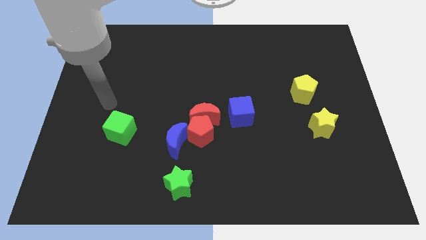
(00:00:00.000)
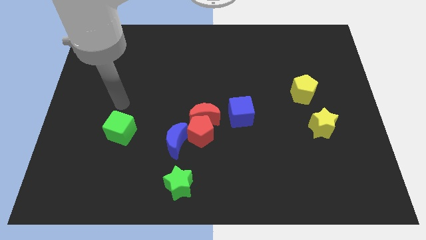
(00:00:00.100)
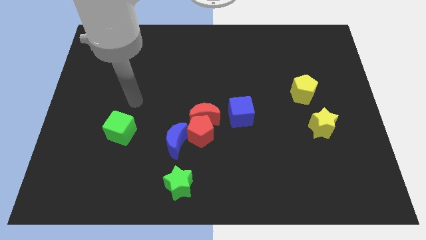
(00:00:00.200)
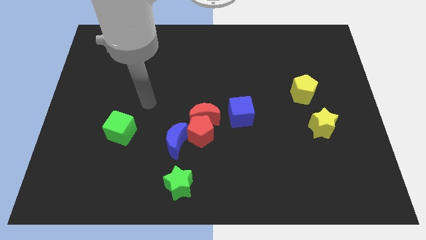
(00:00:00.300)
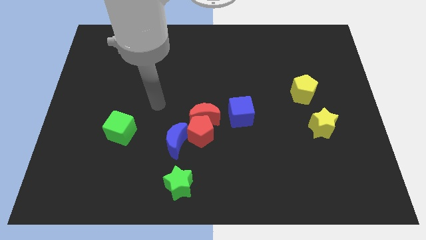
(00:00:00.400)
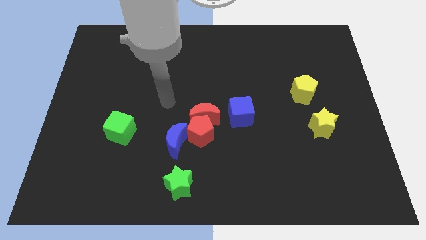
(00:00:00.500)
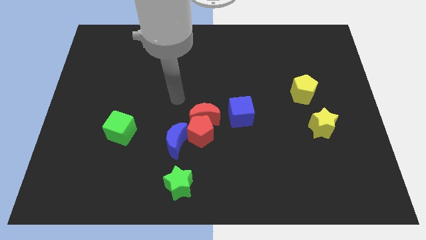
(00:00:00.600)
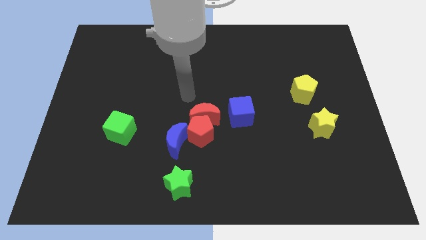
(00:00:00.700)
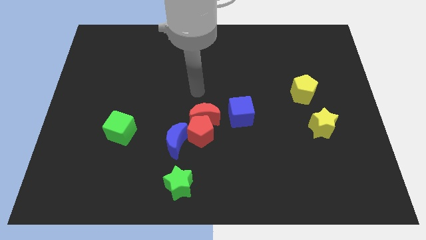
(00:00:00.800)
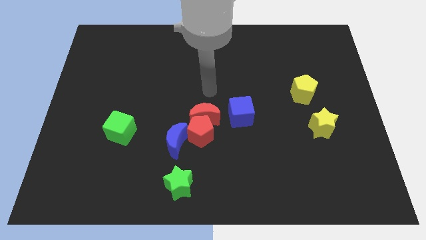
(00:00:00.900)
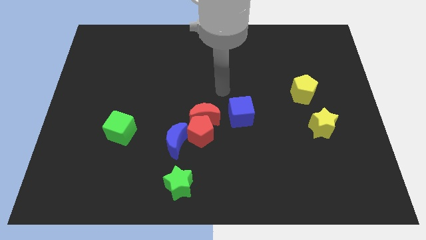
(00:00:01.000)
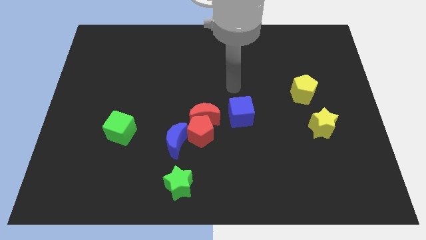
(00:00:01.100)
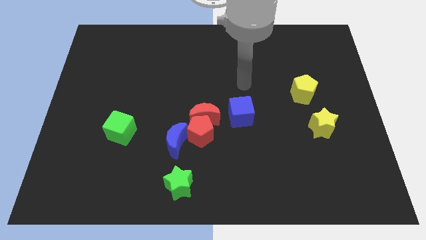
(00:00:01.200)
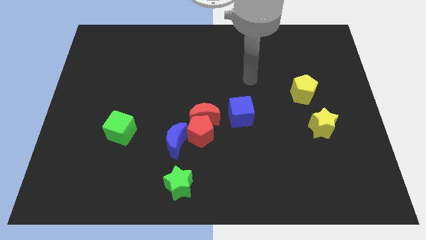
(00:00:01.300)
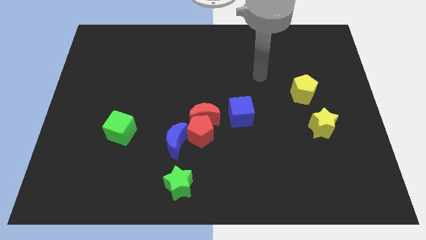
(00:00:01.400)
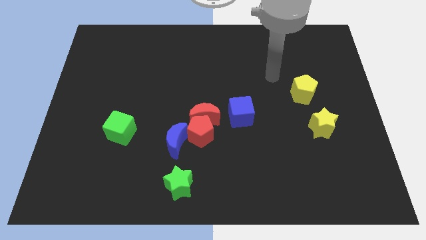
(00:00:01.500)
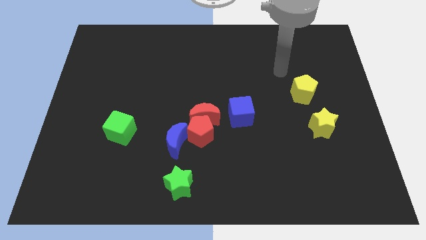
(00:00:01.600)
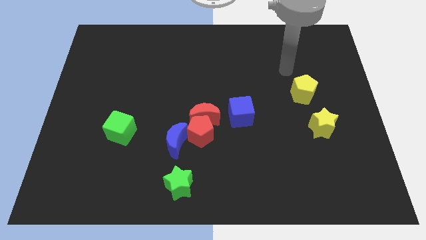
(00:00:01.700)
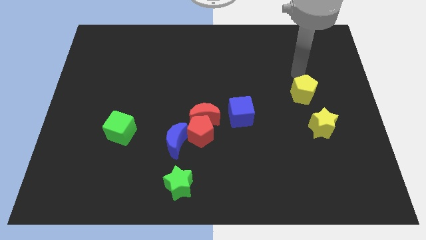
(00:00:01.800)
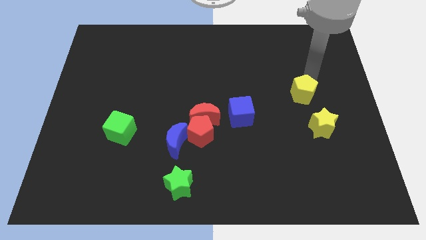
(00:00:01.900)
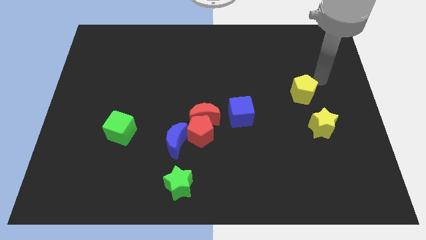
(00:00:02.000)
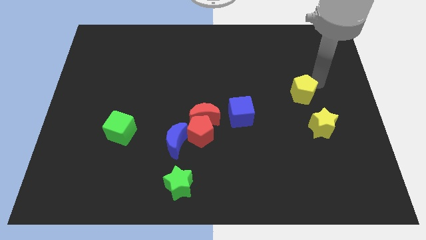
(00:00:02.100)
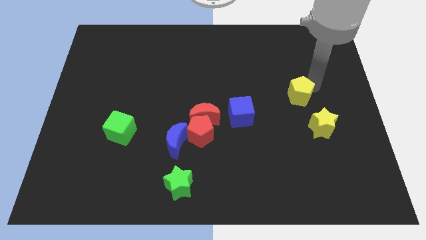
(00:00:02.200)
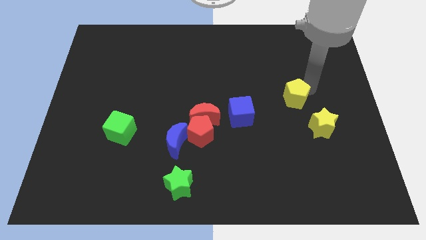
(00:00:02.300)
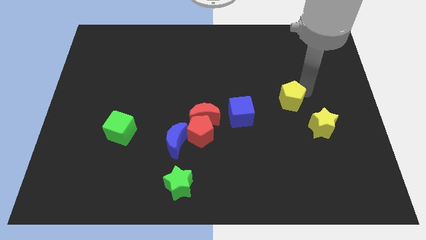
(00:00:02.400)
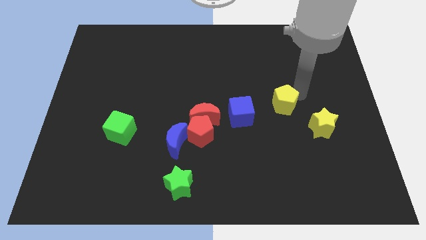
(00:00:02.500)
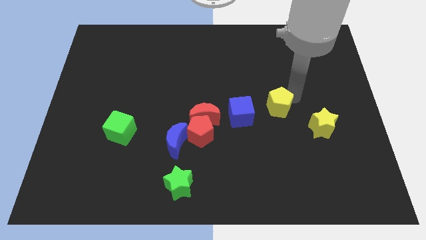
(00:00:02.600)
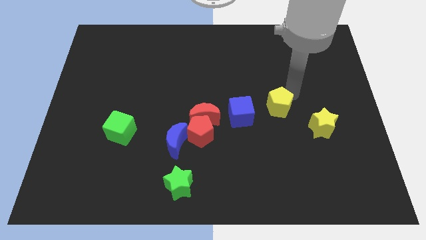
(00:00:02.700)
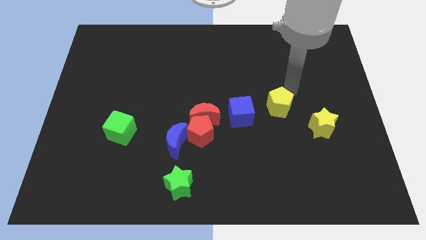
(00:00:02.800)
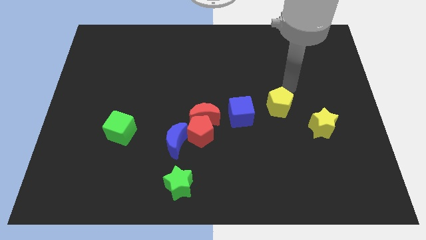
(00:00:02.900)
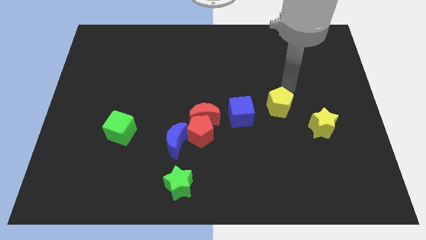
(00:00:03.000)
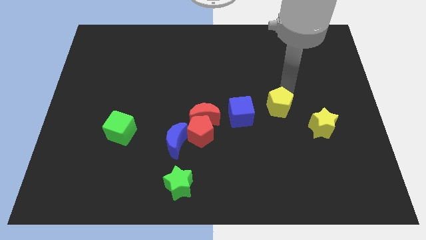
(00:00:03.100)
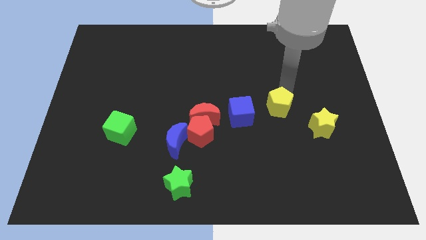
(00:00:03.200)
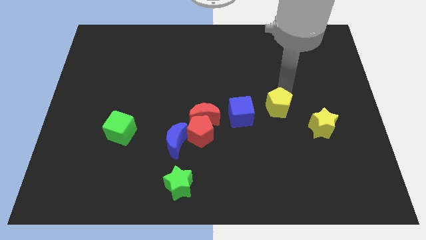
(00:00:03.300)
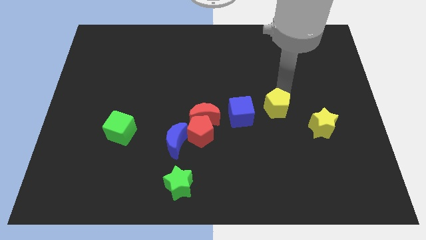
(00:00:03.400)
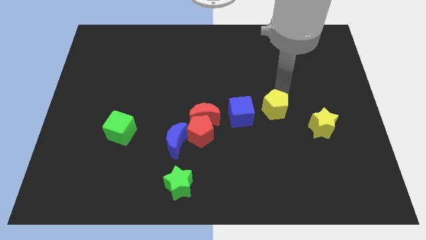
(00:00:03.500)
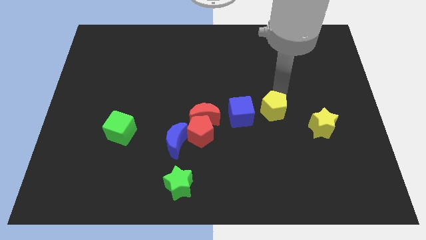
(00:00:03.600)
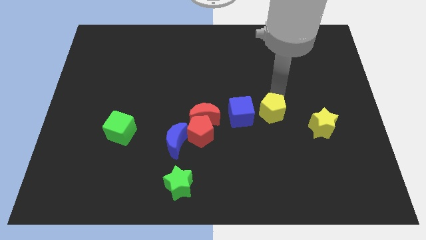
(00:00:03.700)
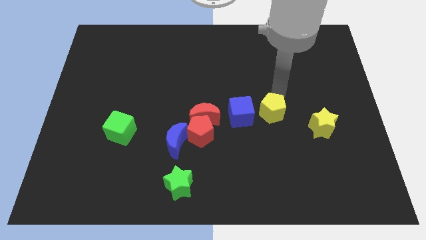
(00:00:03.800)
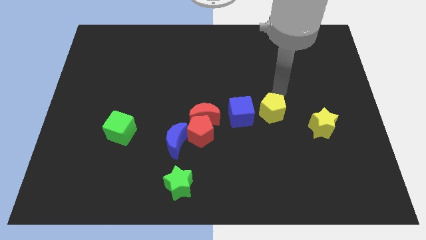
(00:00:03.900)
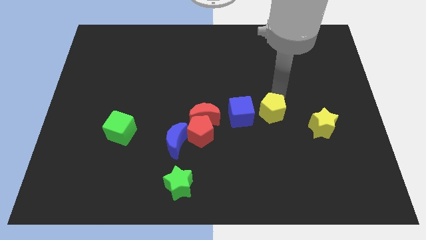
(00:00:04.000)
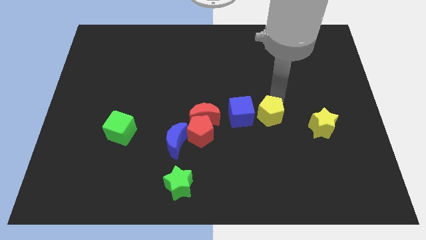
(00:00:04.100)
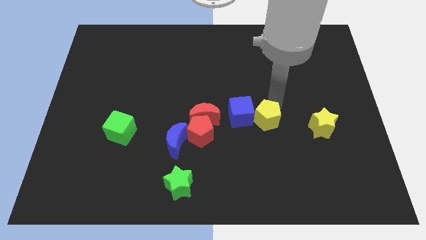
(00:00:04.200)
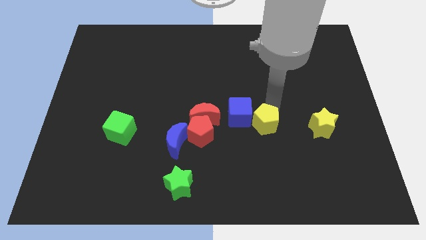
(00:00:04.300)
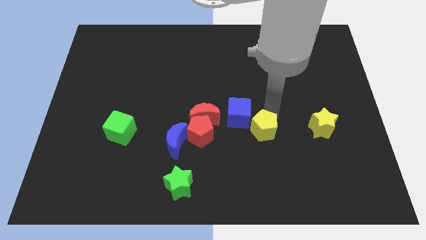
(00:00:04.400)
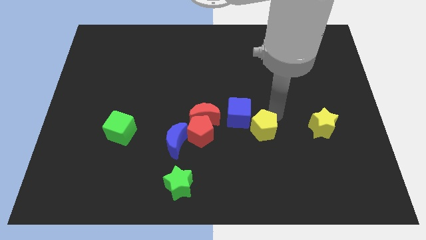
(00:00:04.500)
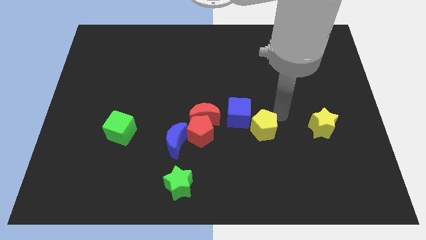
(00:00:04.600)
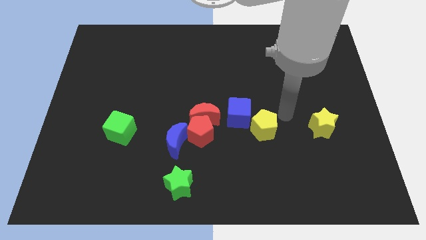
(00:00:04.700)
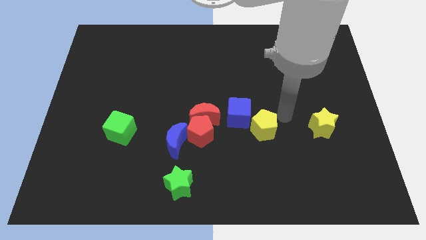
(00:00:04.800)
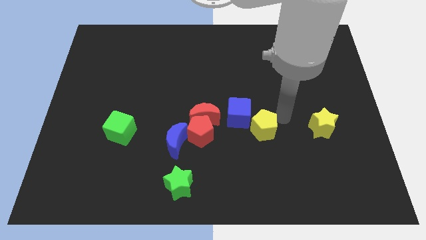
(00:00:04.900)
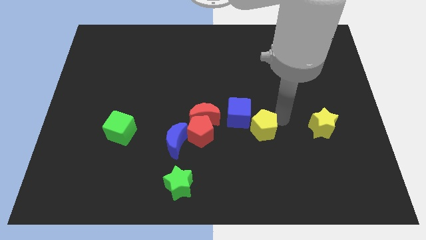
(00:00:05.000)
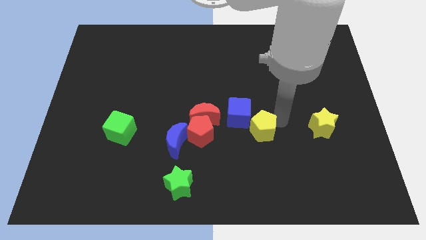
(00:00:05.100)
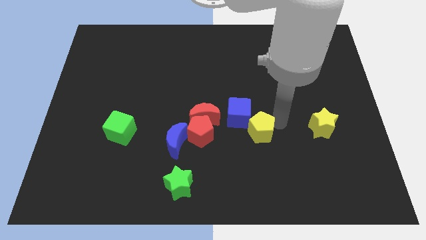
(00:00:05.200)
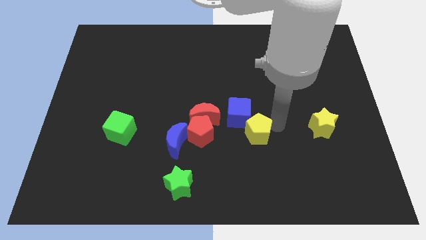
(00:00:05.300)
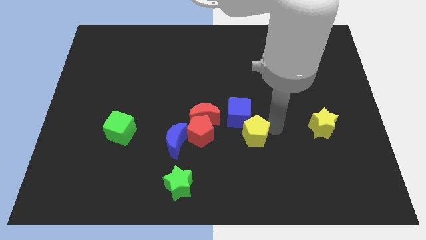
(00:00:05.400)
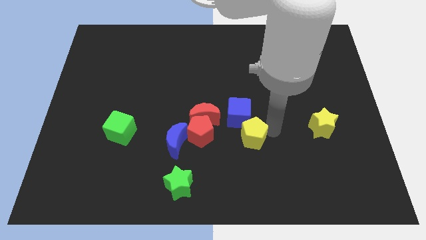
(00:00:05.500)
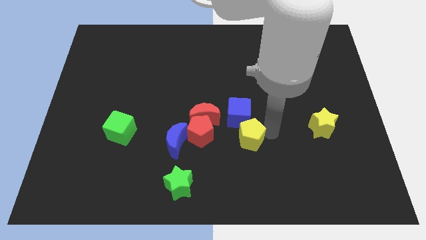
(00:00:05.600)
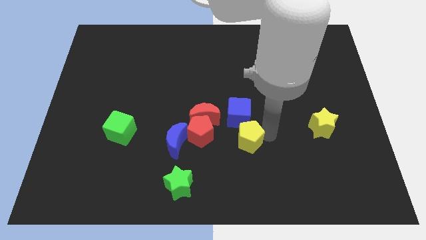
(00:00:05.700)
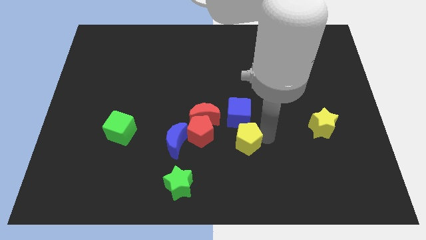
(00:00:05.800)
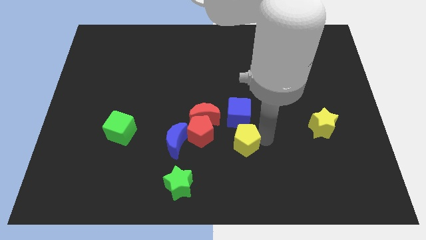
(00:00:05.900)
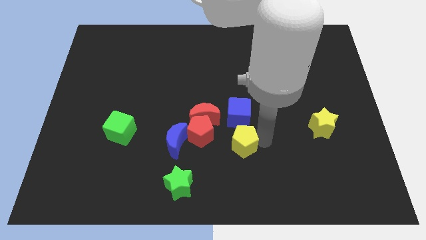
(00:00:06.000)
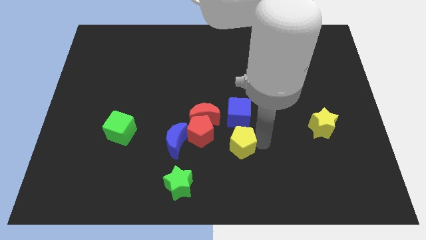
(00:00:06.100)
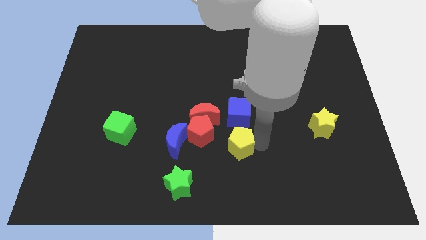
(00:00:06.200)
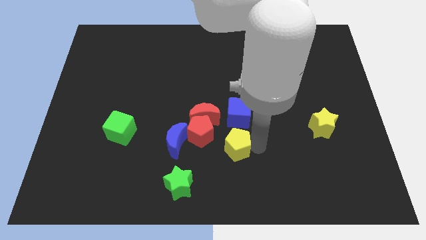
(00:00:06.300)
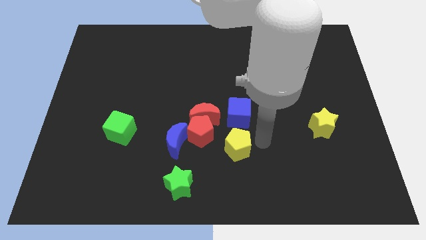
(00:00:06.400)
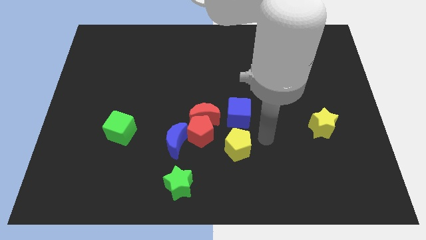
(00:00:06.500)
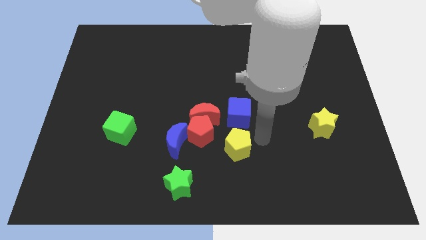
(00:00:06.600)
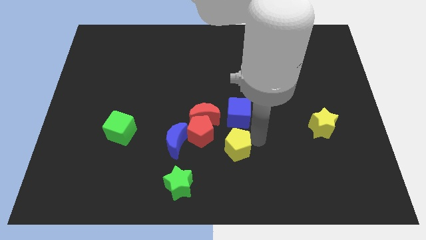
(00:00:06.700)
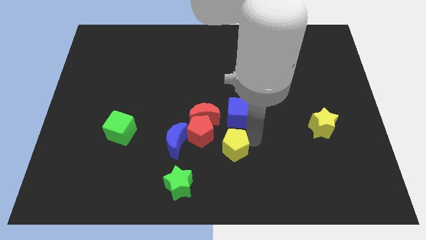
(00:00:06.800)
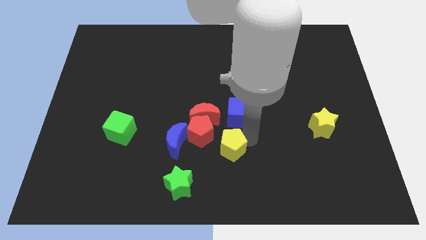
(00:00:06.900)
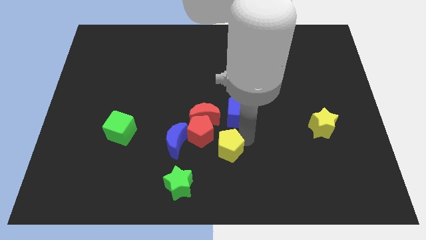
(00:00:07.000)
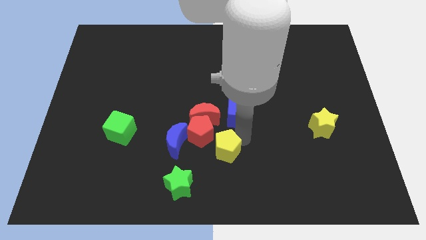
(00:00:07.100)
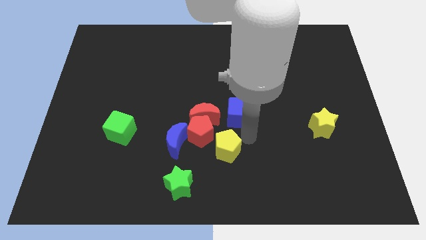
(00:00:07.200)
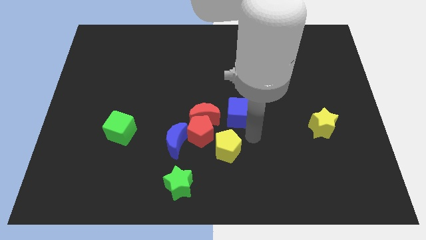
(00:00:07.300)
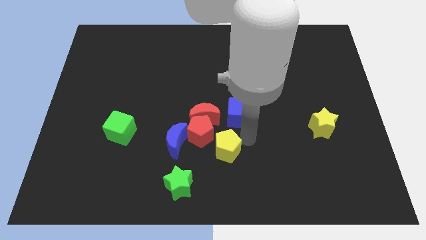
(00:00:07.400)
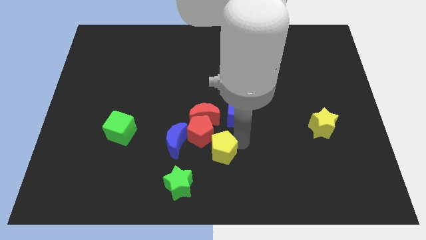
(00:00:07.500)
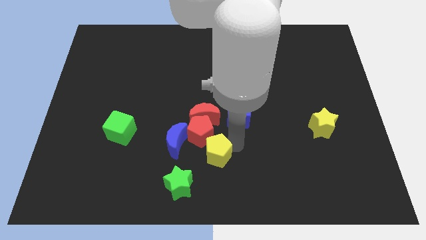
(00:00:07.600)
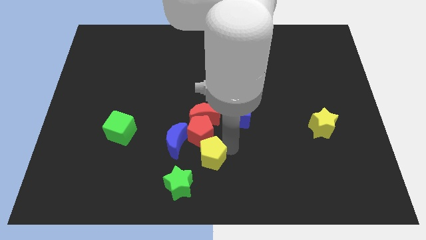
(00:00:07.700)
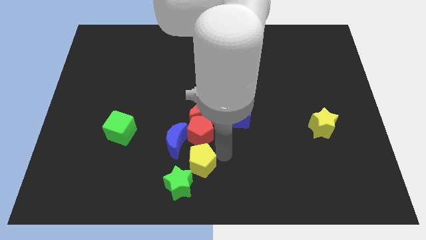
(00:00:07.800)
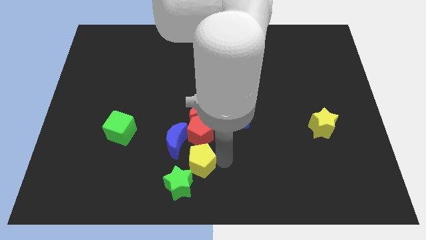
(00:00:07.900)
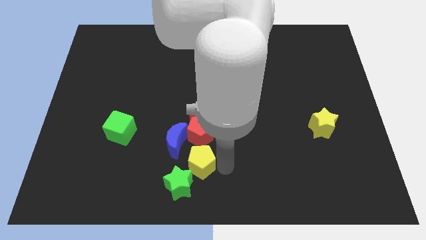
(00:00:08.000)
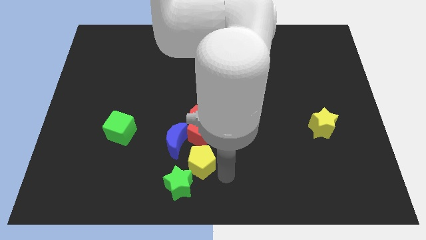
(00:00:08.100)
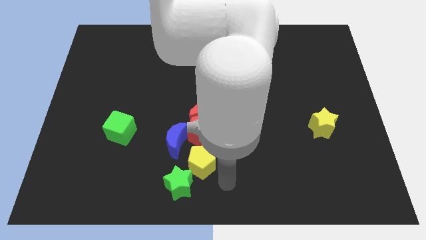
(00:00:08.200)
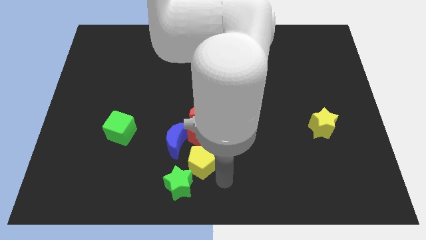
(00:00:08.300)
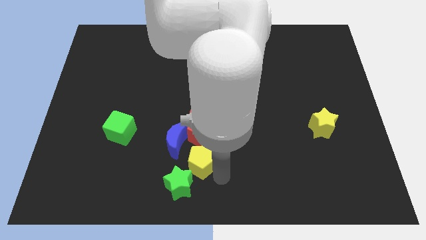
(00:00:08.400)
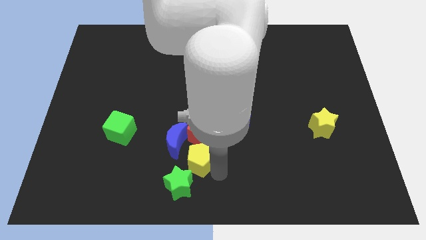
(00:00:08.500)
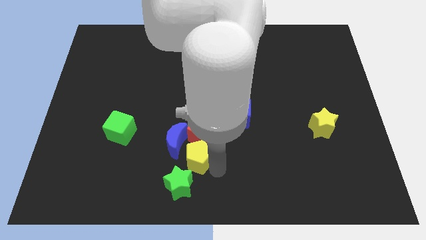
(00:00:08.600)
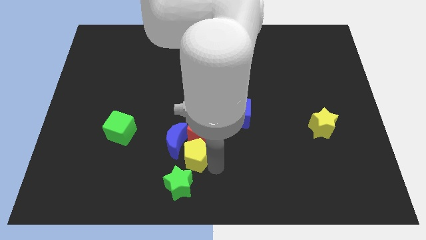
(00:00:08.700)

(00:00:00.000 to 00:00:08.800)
move the yellow pentagon close to the blue moon
